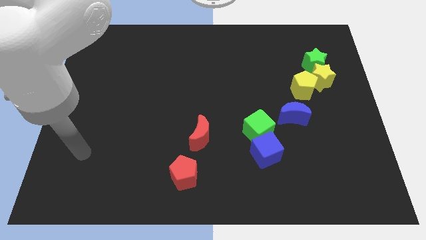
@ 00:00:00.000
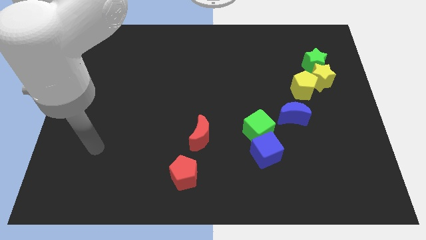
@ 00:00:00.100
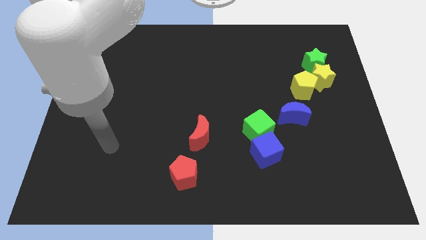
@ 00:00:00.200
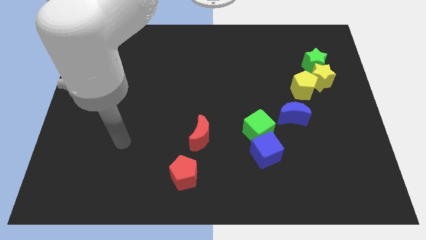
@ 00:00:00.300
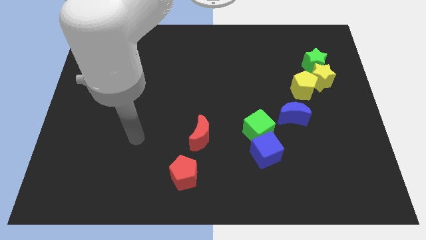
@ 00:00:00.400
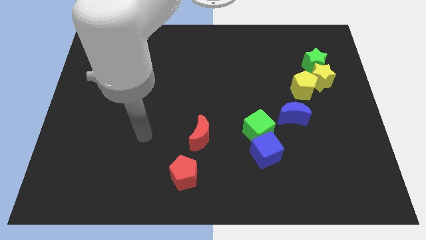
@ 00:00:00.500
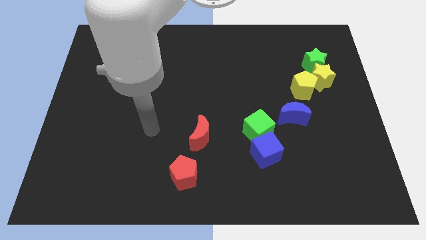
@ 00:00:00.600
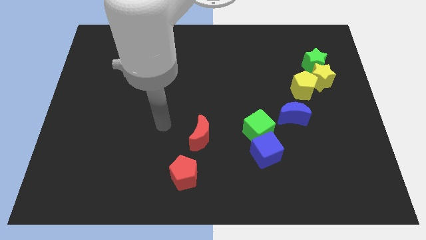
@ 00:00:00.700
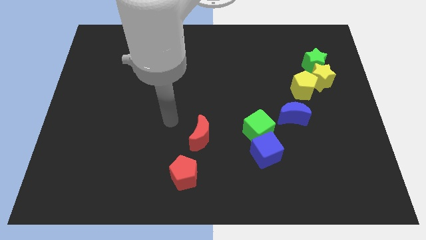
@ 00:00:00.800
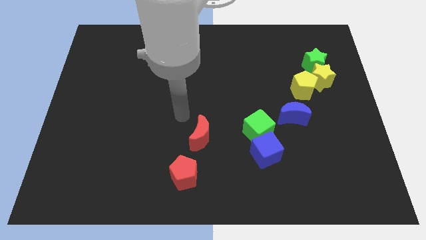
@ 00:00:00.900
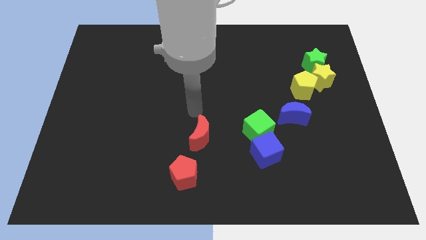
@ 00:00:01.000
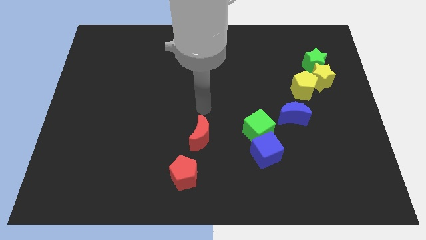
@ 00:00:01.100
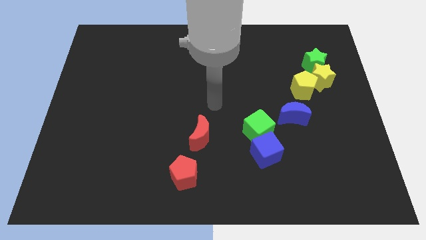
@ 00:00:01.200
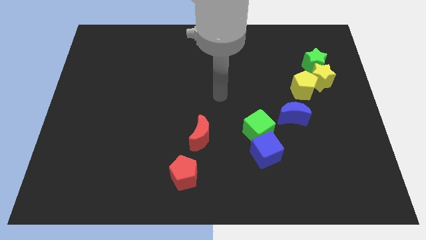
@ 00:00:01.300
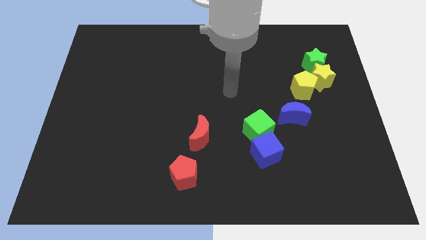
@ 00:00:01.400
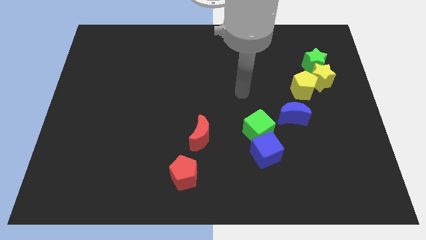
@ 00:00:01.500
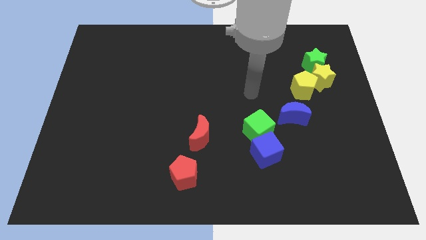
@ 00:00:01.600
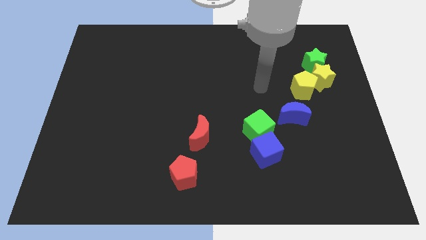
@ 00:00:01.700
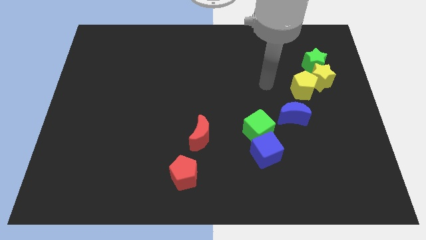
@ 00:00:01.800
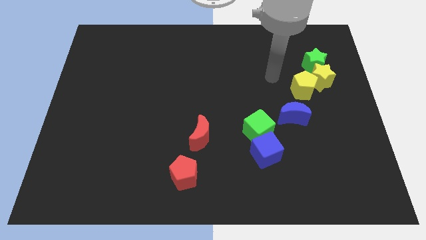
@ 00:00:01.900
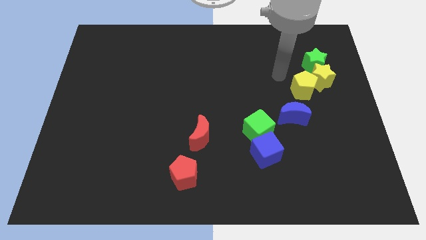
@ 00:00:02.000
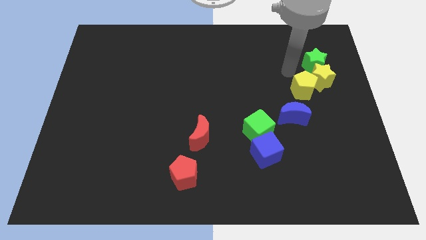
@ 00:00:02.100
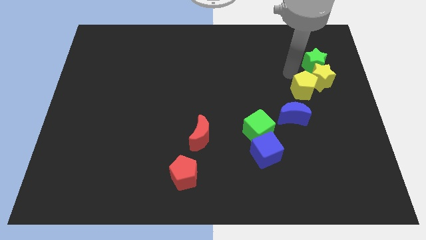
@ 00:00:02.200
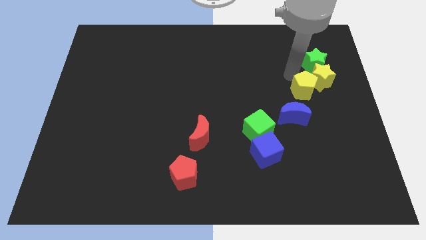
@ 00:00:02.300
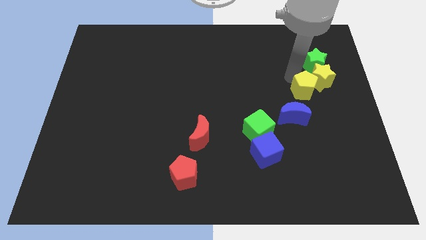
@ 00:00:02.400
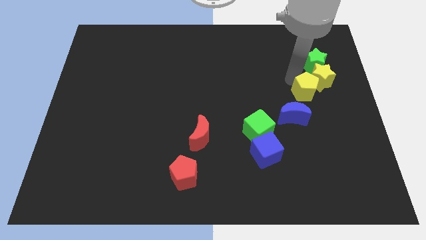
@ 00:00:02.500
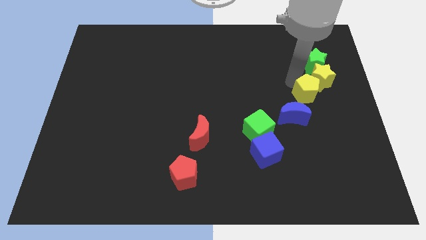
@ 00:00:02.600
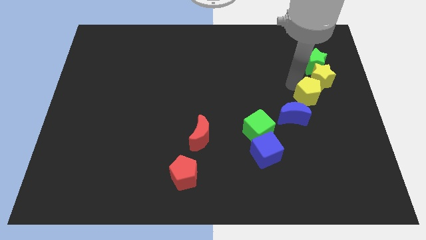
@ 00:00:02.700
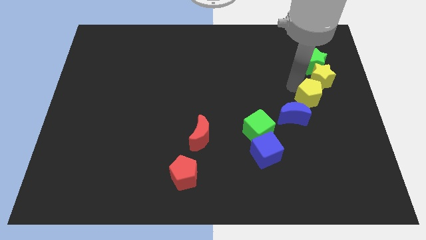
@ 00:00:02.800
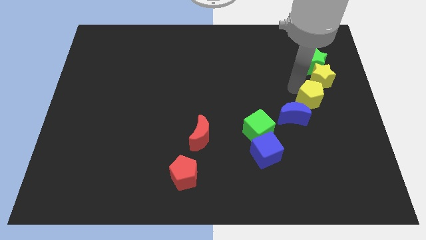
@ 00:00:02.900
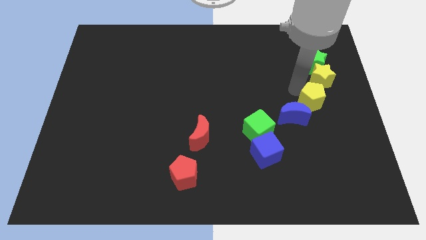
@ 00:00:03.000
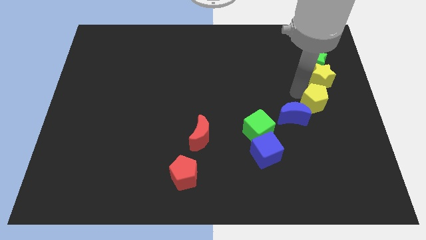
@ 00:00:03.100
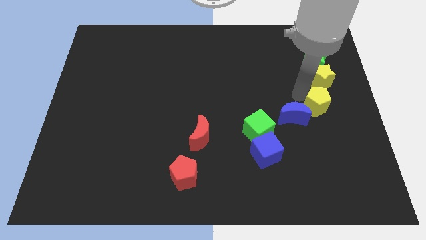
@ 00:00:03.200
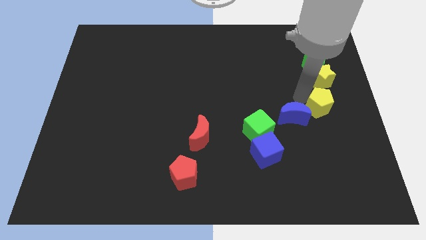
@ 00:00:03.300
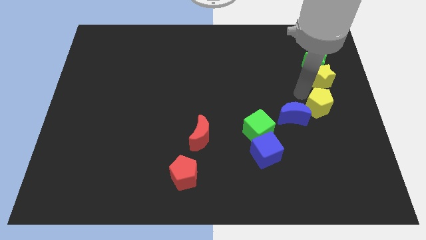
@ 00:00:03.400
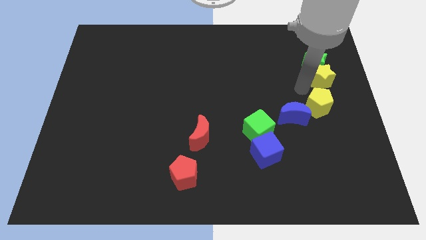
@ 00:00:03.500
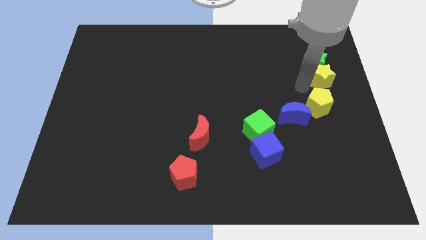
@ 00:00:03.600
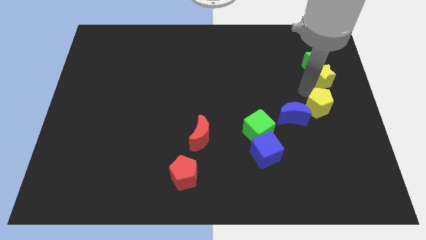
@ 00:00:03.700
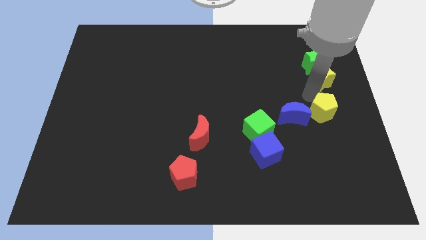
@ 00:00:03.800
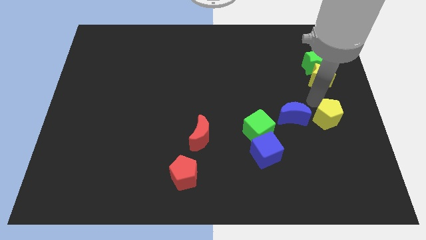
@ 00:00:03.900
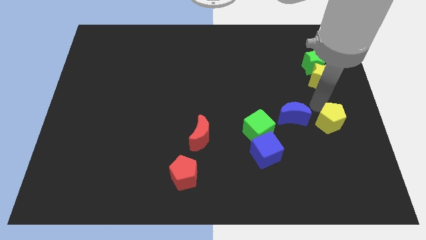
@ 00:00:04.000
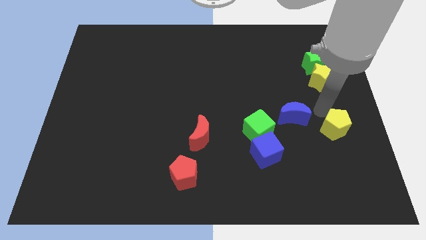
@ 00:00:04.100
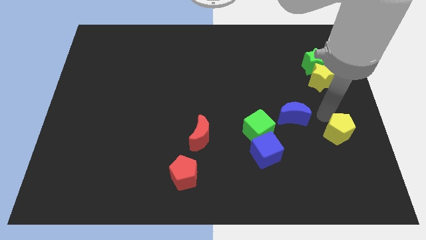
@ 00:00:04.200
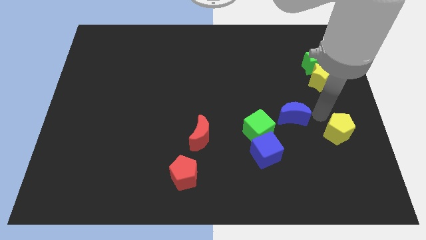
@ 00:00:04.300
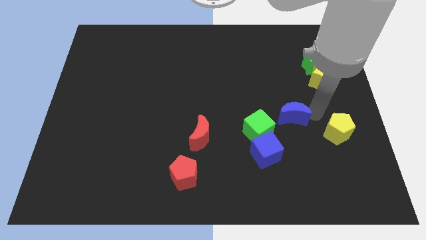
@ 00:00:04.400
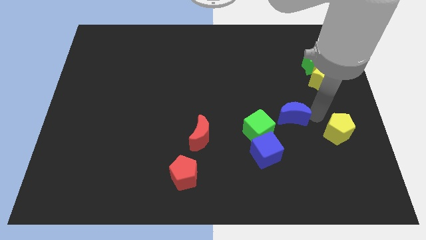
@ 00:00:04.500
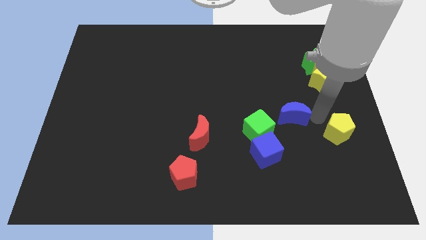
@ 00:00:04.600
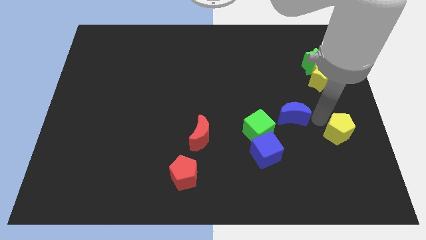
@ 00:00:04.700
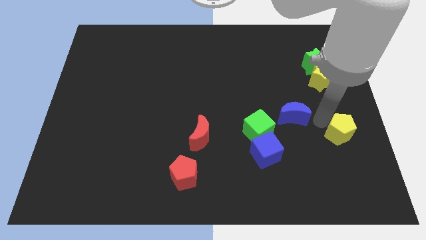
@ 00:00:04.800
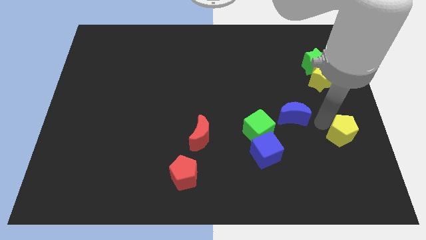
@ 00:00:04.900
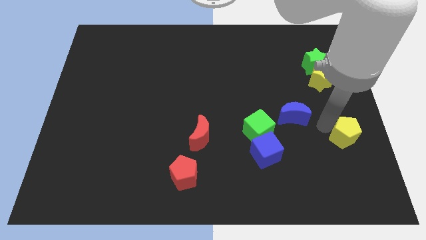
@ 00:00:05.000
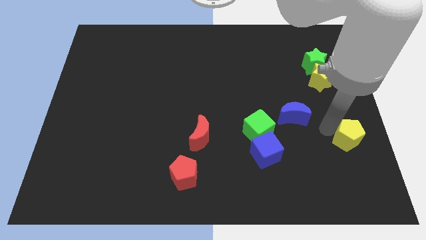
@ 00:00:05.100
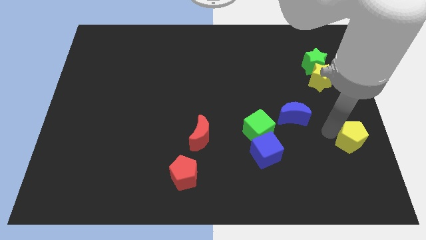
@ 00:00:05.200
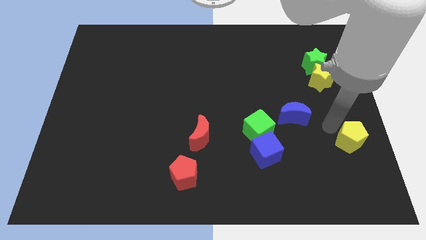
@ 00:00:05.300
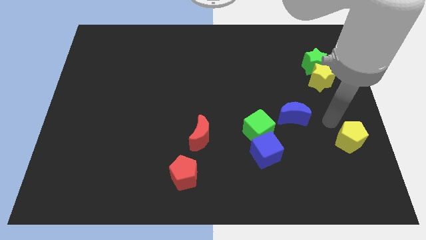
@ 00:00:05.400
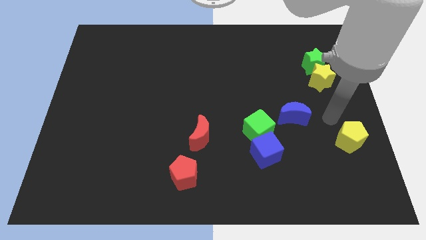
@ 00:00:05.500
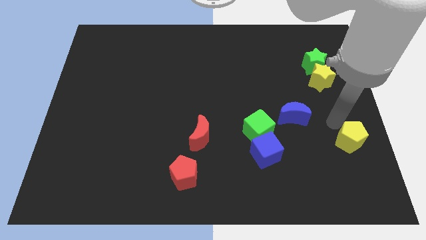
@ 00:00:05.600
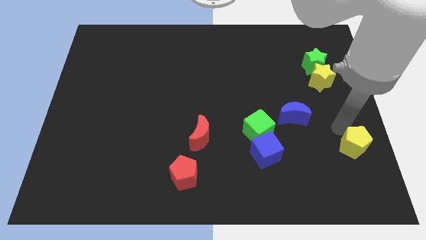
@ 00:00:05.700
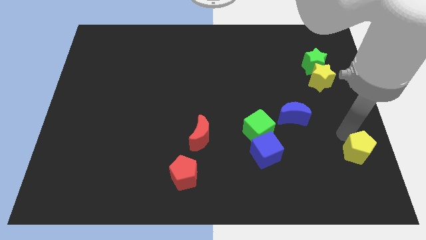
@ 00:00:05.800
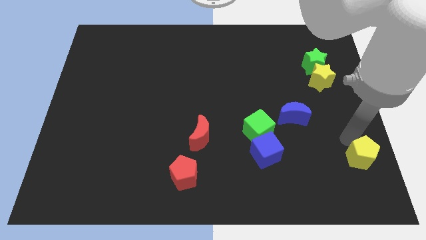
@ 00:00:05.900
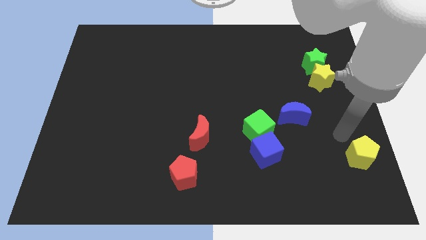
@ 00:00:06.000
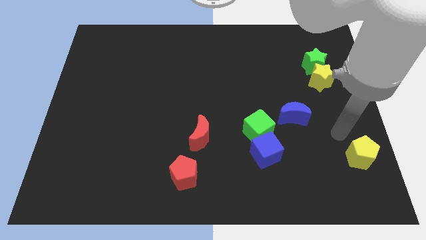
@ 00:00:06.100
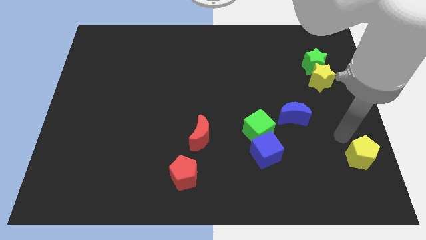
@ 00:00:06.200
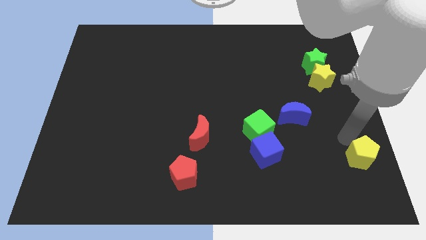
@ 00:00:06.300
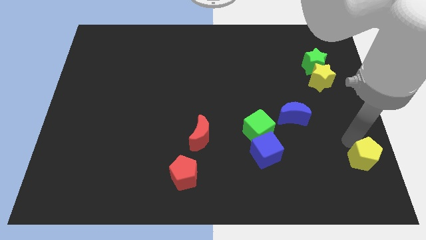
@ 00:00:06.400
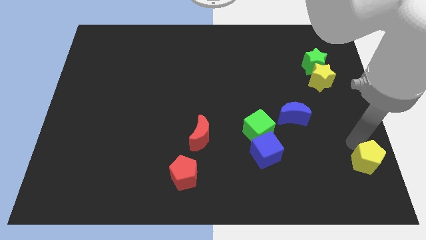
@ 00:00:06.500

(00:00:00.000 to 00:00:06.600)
put the yellow pentagon to the bottom right of the board
